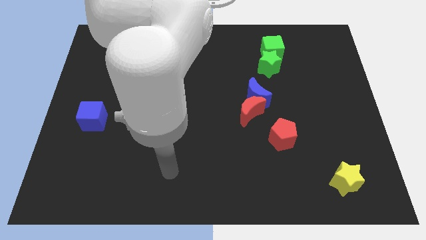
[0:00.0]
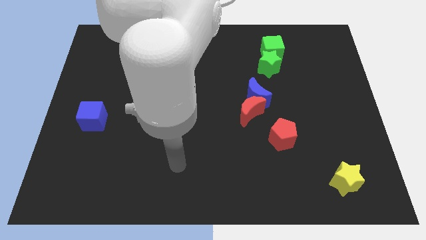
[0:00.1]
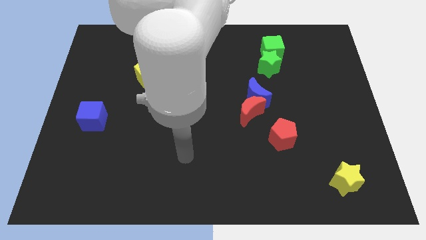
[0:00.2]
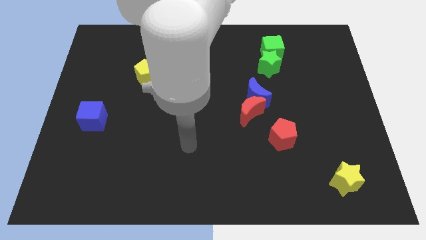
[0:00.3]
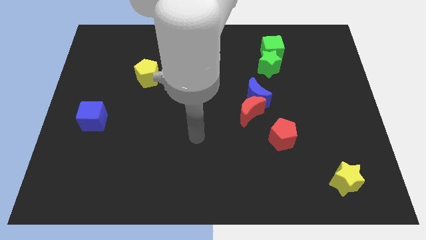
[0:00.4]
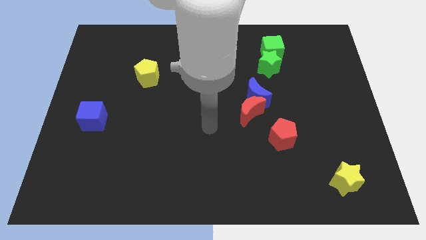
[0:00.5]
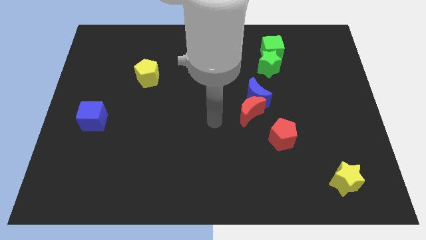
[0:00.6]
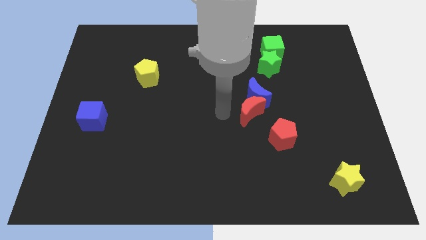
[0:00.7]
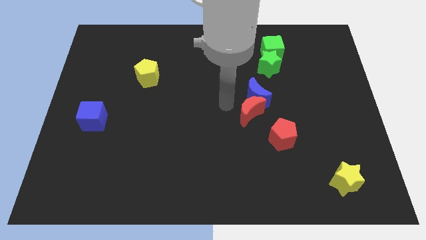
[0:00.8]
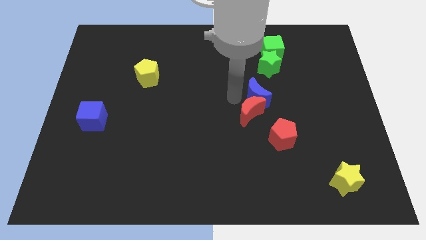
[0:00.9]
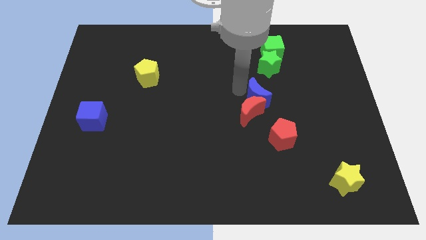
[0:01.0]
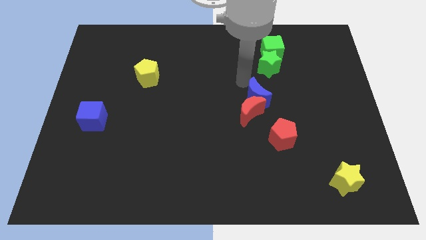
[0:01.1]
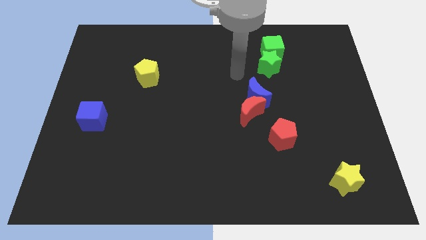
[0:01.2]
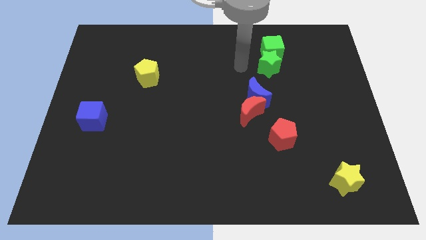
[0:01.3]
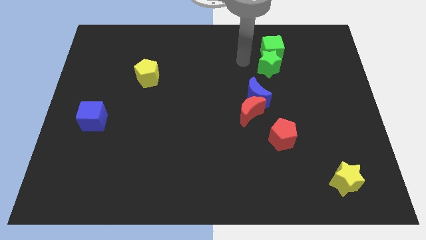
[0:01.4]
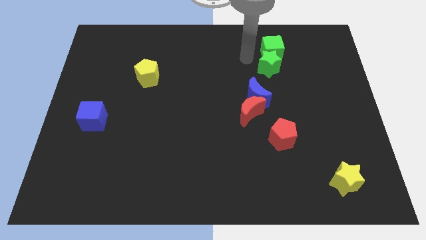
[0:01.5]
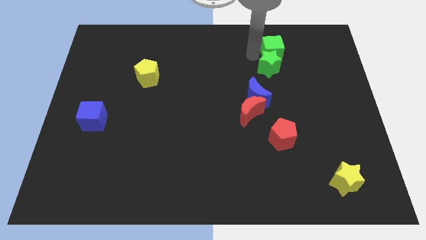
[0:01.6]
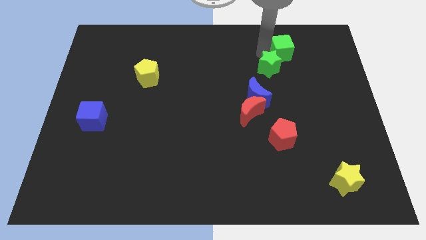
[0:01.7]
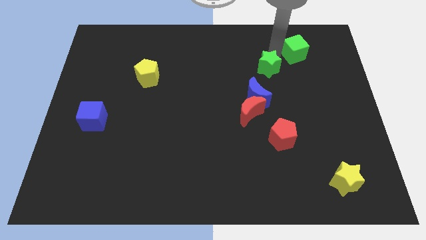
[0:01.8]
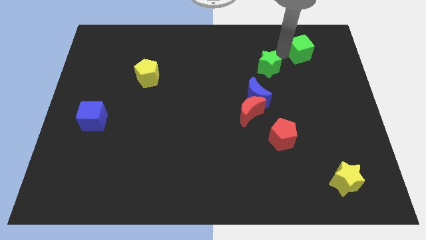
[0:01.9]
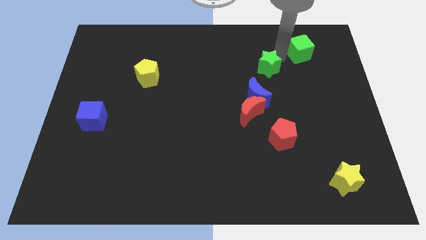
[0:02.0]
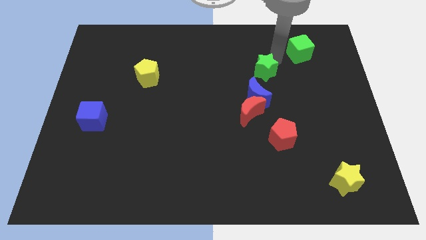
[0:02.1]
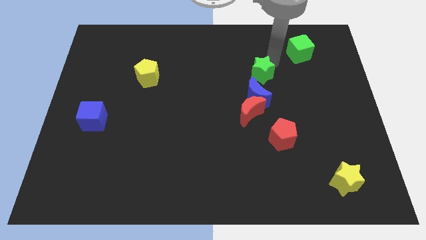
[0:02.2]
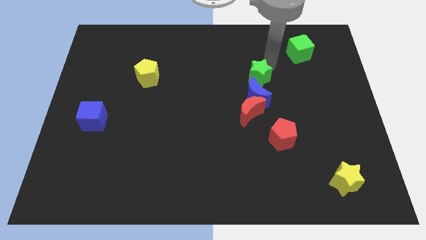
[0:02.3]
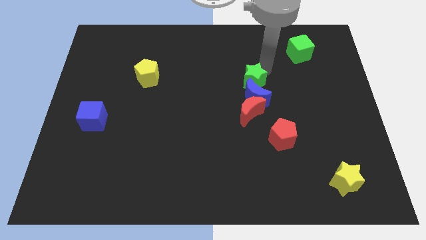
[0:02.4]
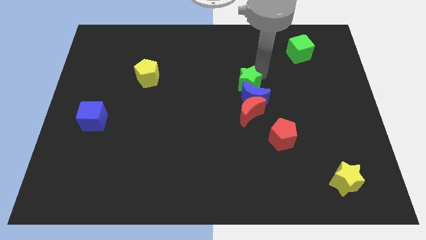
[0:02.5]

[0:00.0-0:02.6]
push the green star a little bit downwards and to the left diagonally

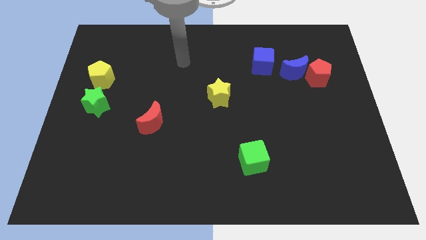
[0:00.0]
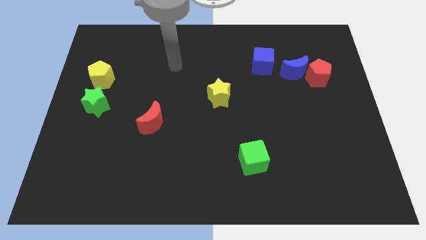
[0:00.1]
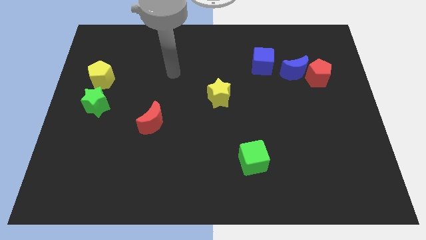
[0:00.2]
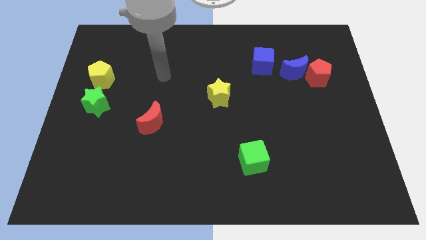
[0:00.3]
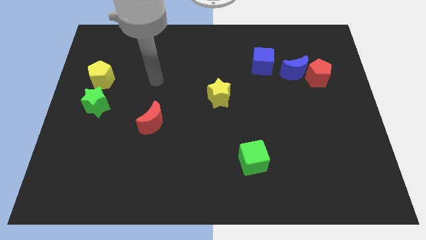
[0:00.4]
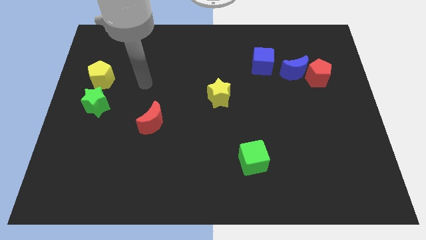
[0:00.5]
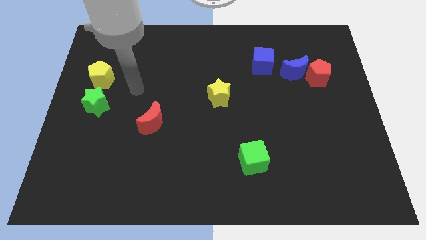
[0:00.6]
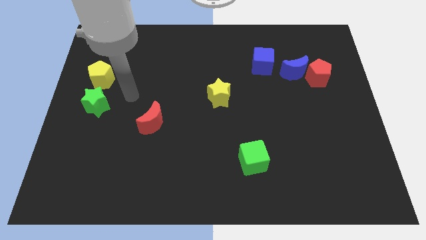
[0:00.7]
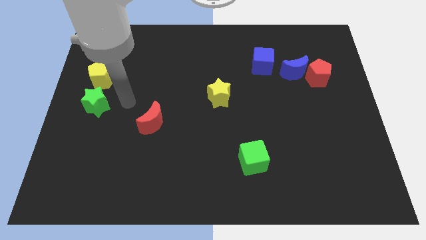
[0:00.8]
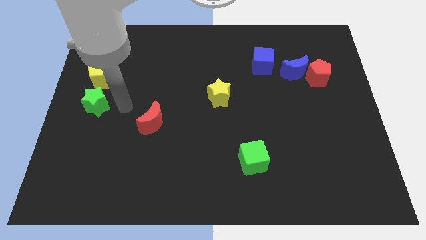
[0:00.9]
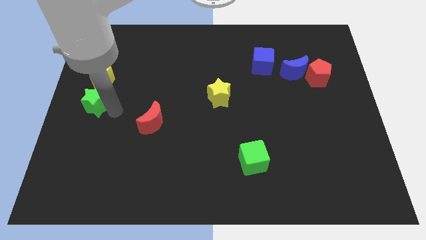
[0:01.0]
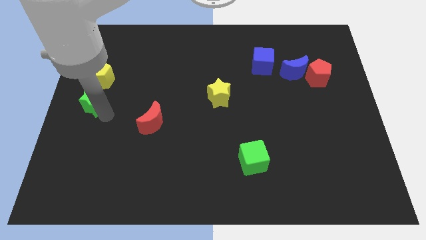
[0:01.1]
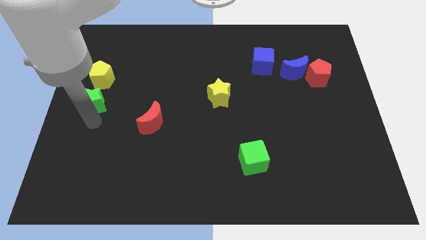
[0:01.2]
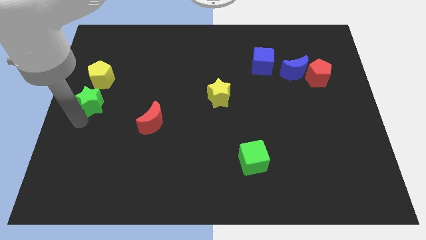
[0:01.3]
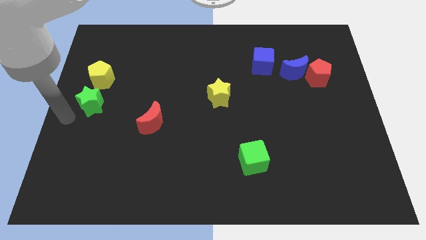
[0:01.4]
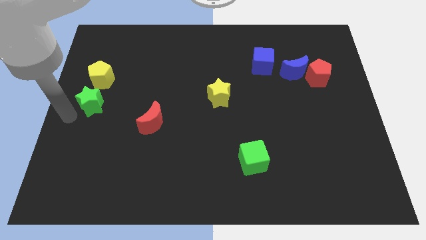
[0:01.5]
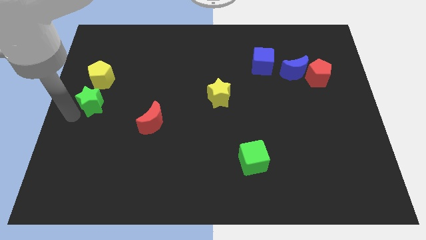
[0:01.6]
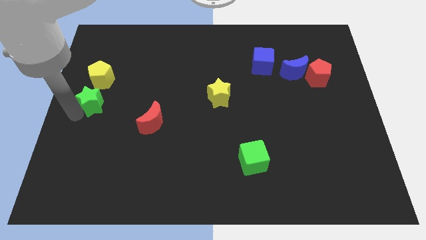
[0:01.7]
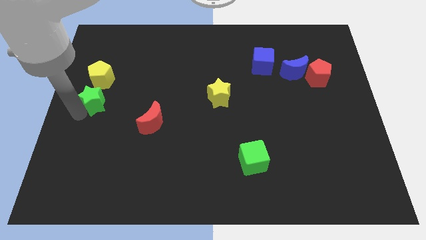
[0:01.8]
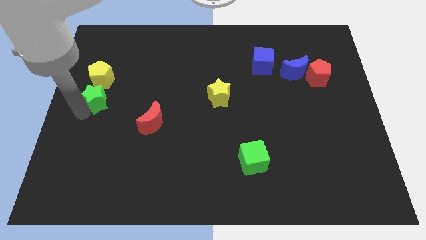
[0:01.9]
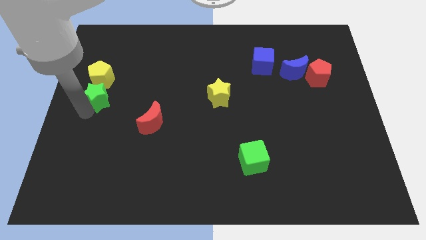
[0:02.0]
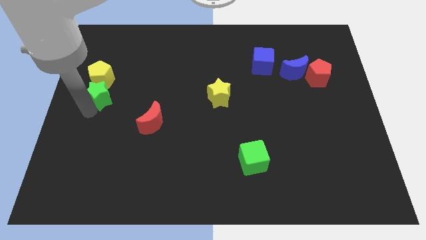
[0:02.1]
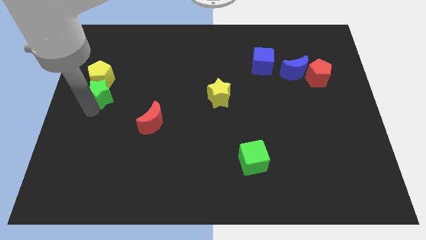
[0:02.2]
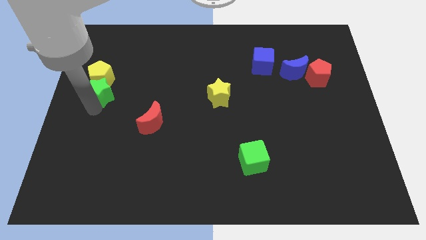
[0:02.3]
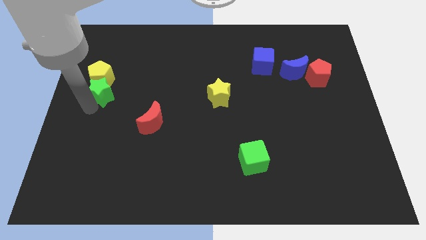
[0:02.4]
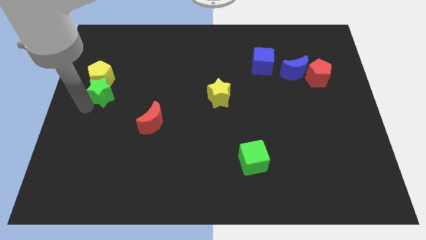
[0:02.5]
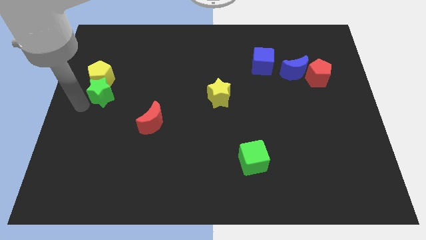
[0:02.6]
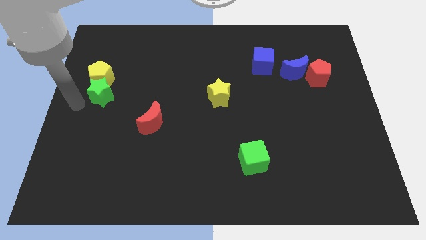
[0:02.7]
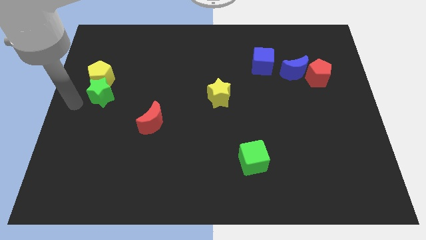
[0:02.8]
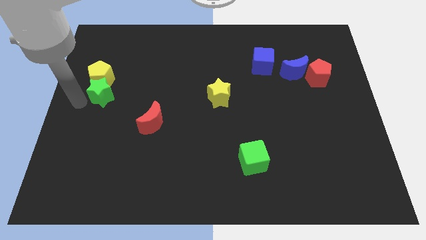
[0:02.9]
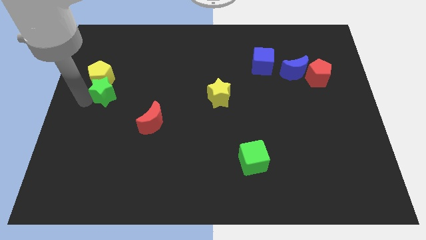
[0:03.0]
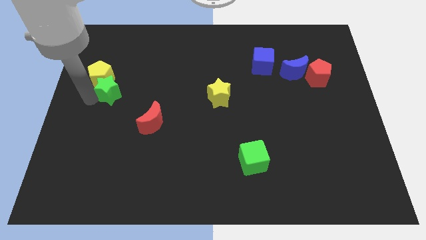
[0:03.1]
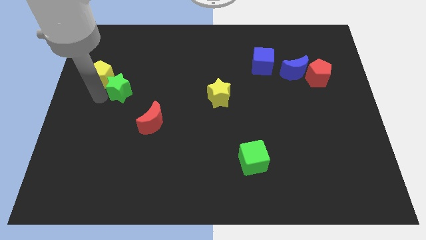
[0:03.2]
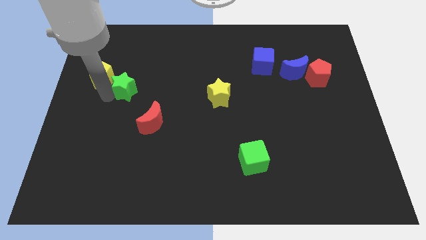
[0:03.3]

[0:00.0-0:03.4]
slightly slide the green star diagonally upwards and to the right

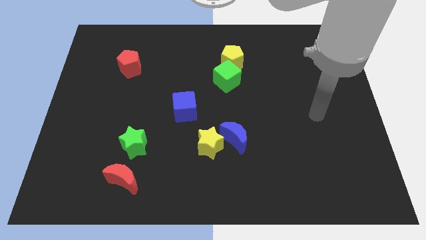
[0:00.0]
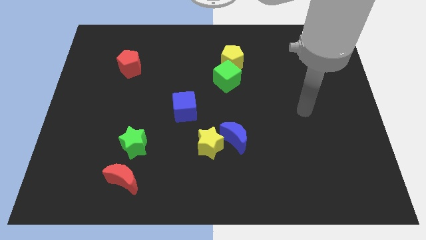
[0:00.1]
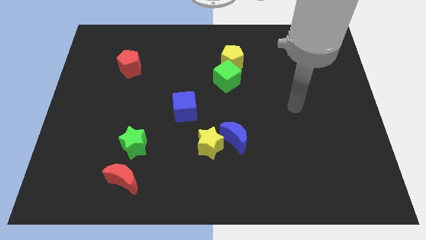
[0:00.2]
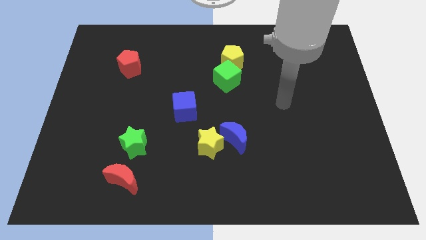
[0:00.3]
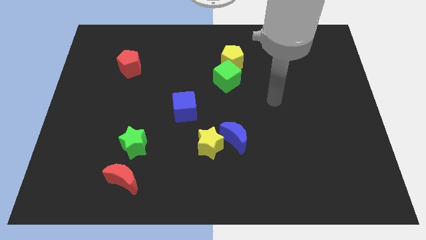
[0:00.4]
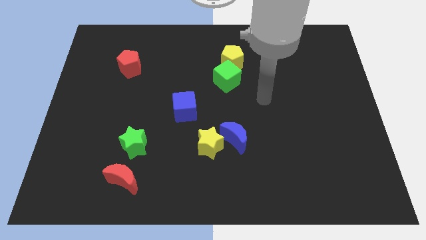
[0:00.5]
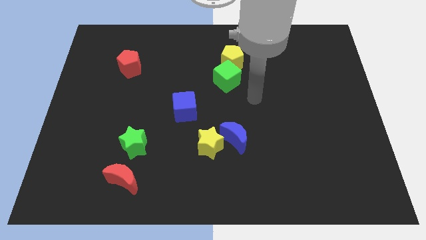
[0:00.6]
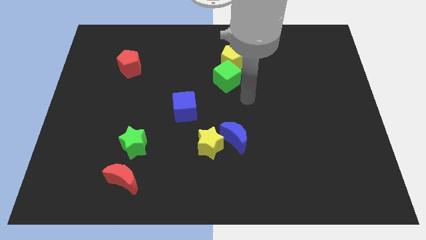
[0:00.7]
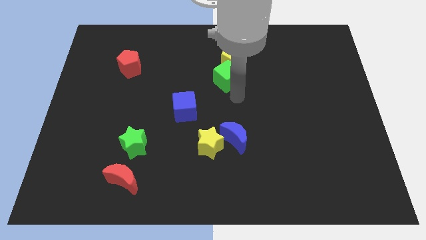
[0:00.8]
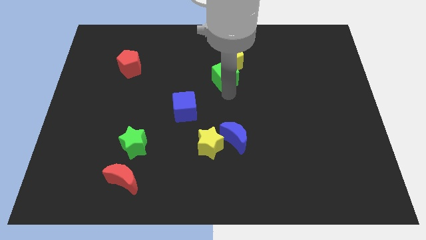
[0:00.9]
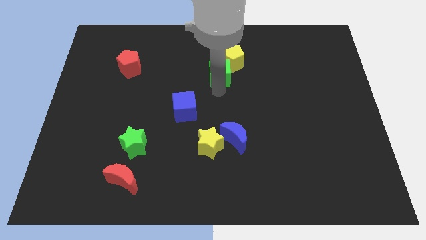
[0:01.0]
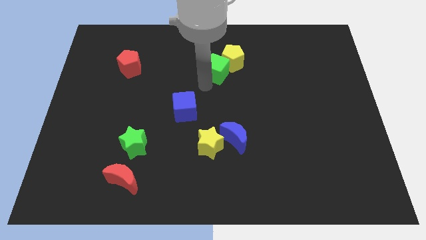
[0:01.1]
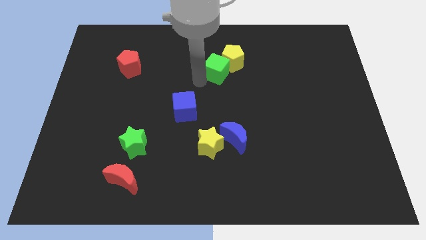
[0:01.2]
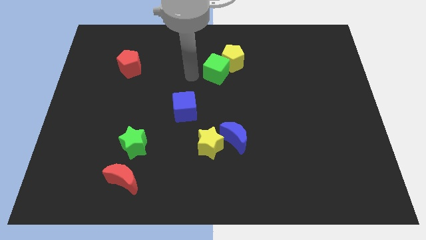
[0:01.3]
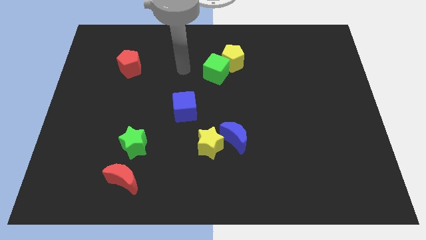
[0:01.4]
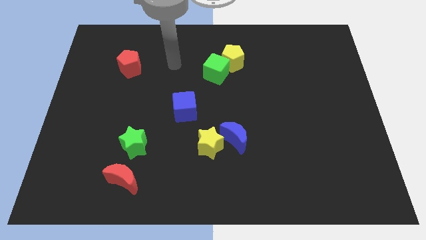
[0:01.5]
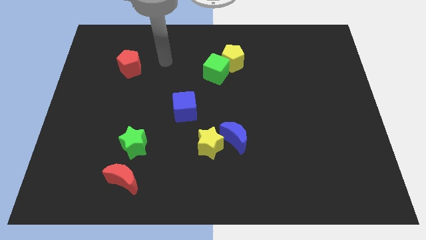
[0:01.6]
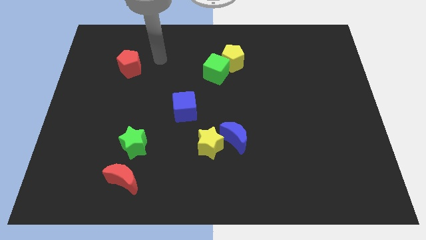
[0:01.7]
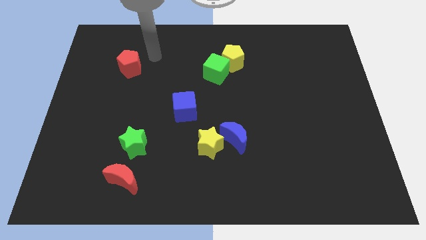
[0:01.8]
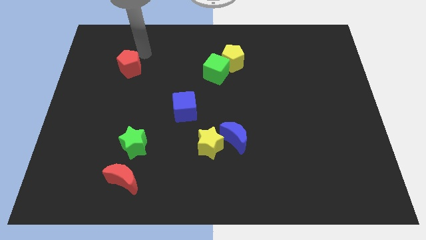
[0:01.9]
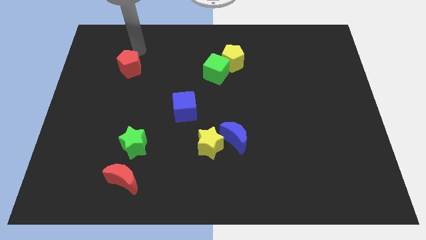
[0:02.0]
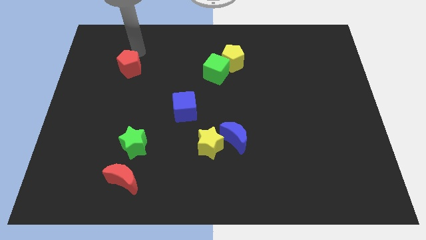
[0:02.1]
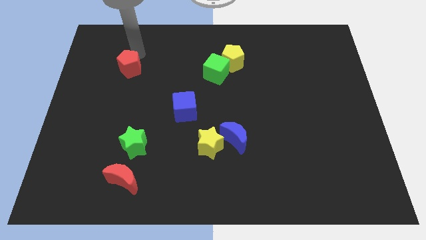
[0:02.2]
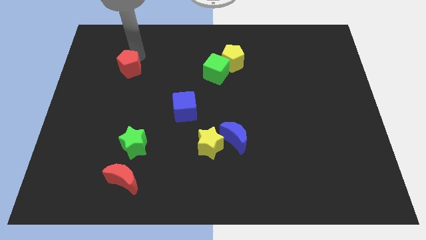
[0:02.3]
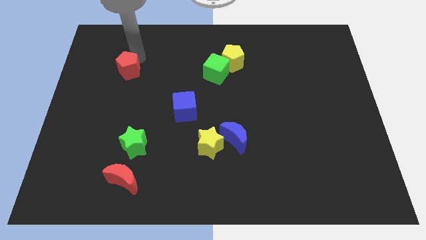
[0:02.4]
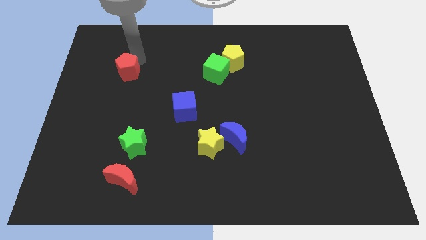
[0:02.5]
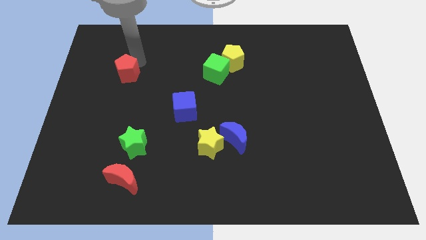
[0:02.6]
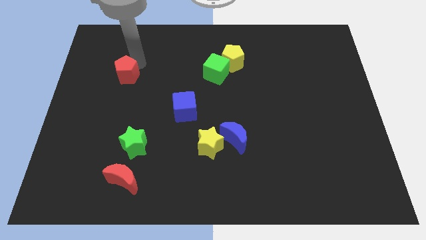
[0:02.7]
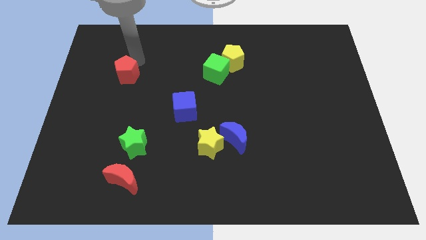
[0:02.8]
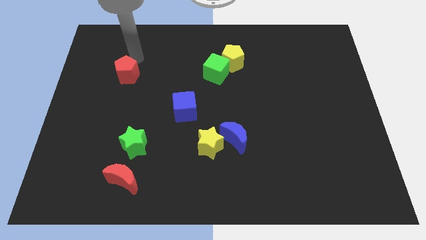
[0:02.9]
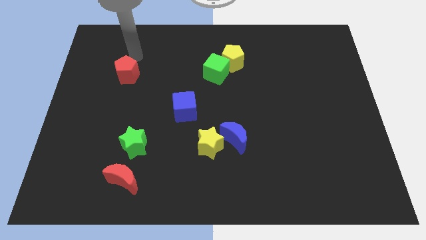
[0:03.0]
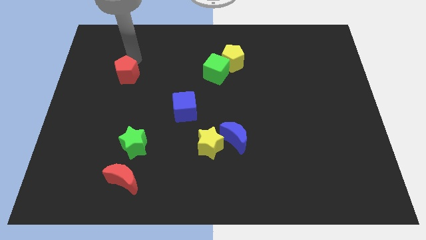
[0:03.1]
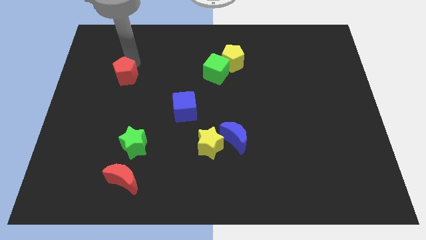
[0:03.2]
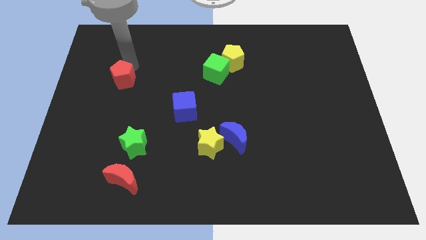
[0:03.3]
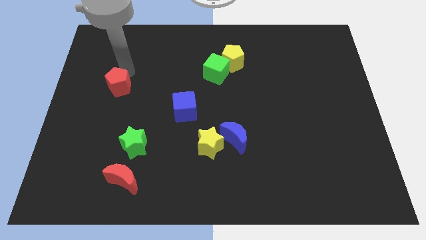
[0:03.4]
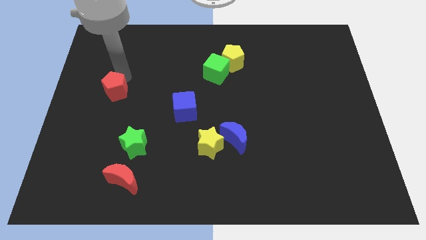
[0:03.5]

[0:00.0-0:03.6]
slide the red pentagon a bit down
